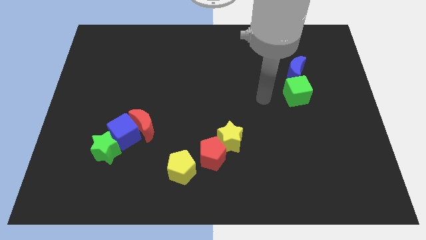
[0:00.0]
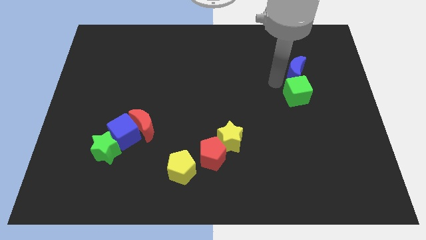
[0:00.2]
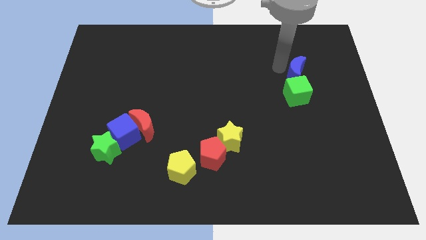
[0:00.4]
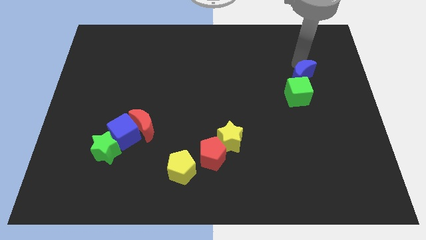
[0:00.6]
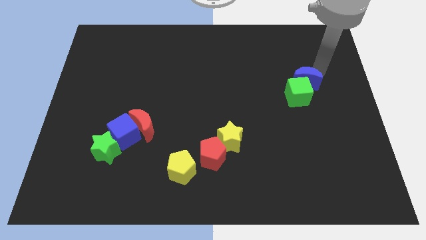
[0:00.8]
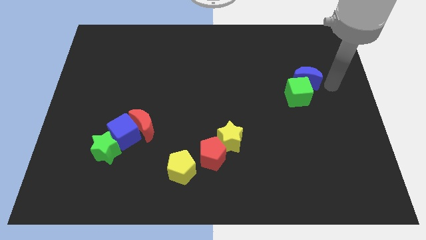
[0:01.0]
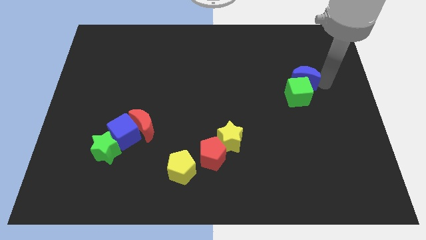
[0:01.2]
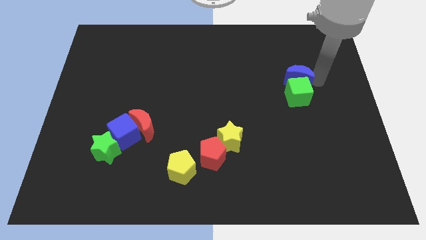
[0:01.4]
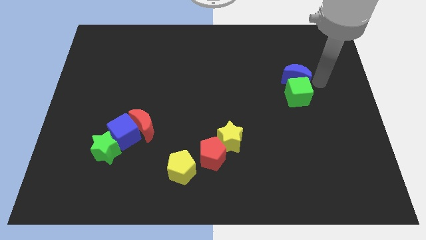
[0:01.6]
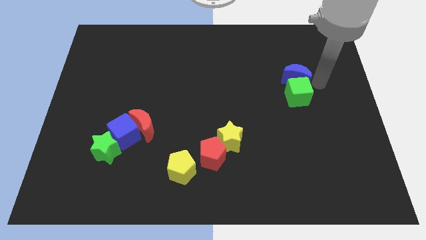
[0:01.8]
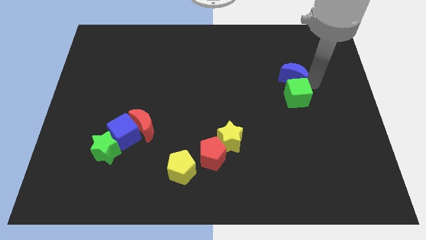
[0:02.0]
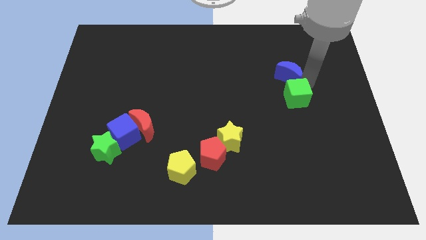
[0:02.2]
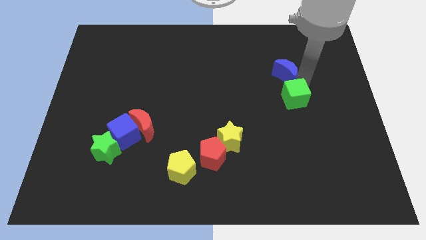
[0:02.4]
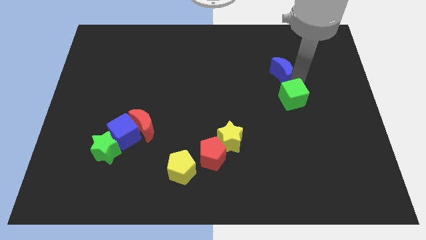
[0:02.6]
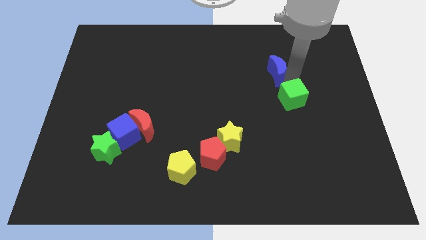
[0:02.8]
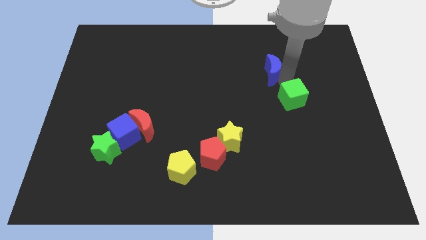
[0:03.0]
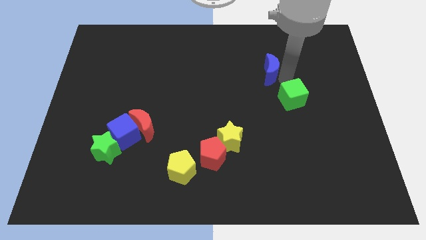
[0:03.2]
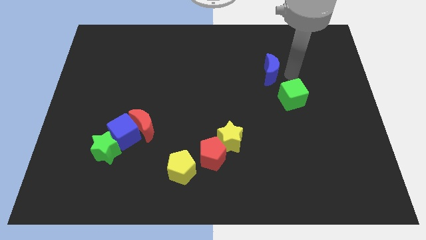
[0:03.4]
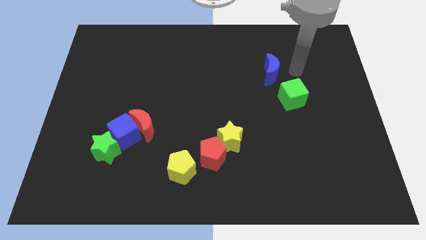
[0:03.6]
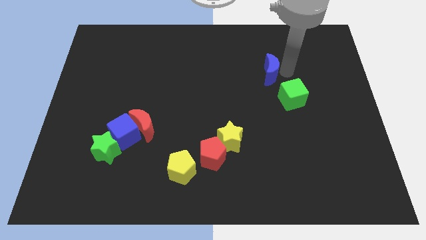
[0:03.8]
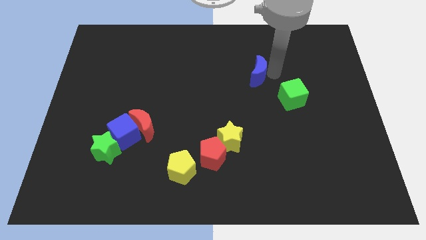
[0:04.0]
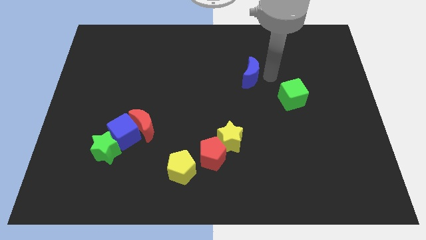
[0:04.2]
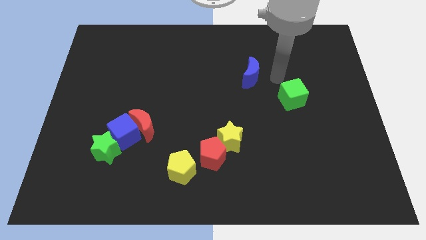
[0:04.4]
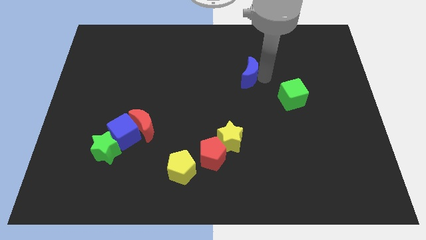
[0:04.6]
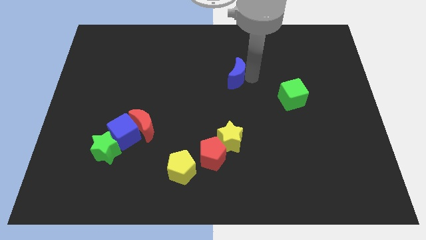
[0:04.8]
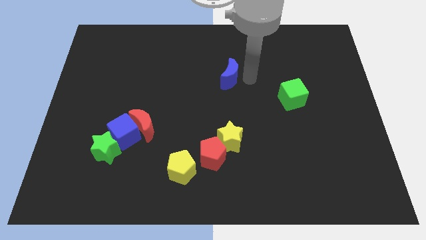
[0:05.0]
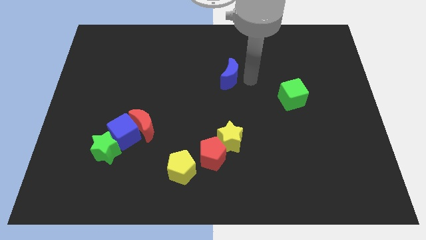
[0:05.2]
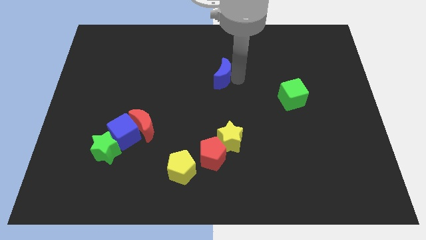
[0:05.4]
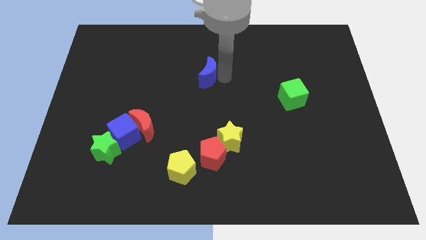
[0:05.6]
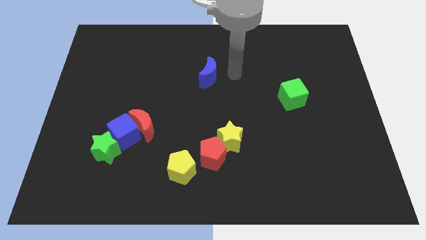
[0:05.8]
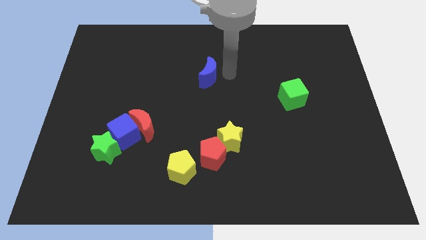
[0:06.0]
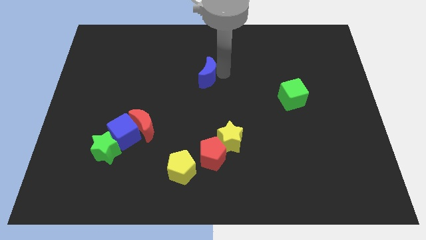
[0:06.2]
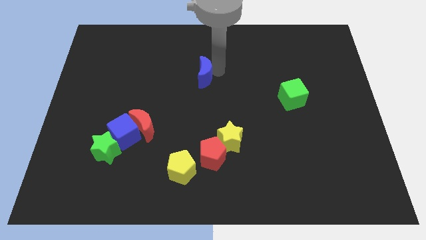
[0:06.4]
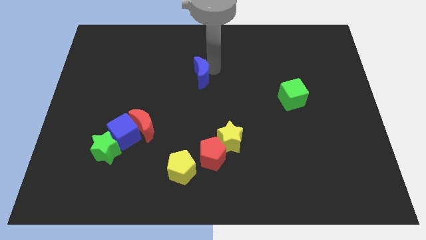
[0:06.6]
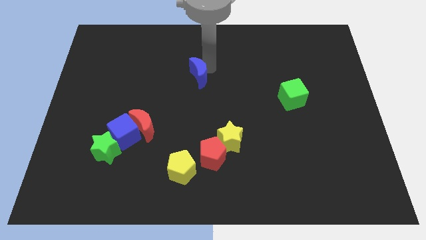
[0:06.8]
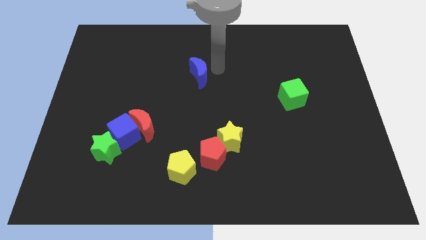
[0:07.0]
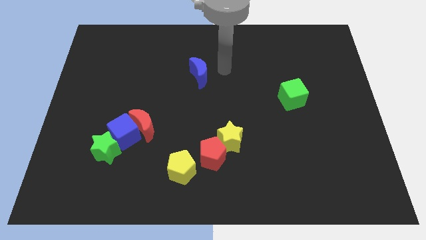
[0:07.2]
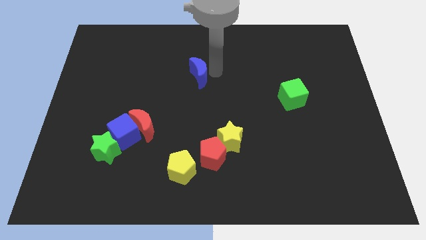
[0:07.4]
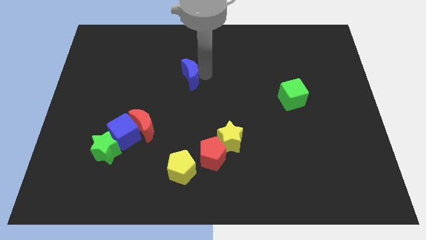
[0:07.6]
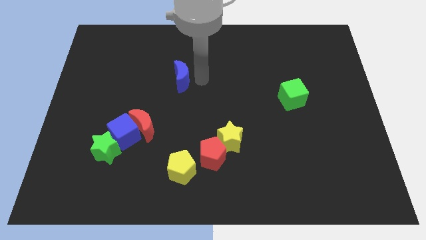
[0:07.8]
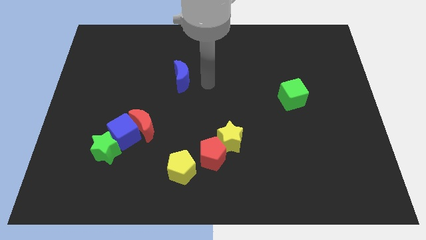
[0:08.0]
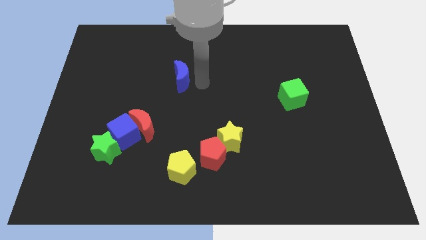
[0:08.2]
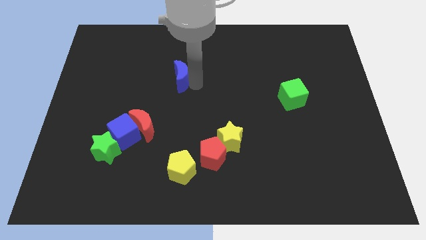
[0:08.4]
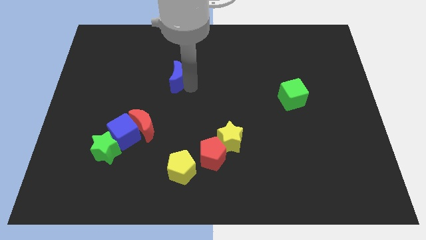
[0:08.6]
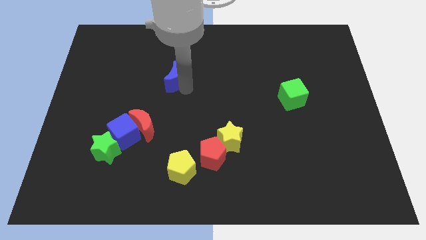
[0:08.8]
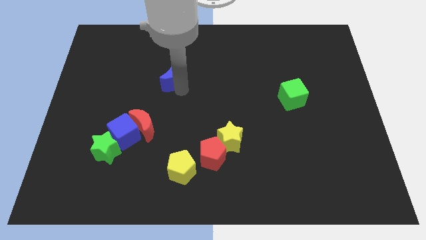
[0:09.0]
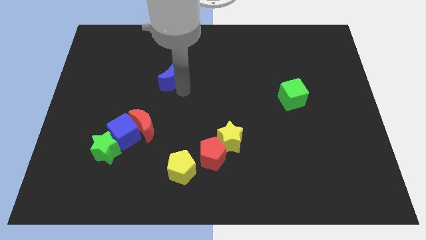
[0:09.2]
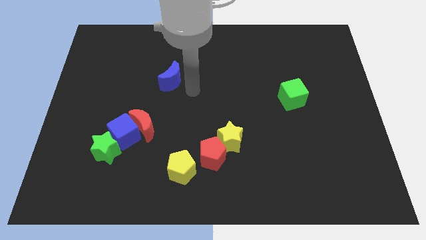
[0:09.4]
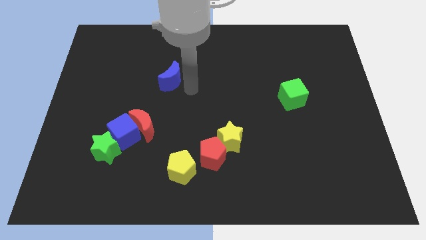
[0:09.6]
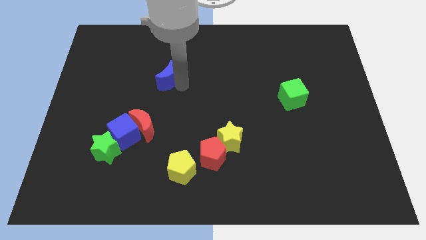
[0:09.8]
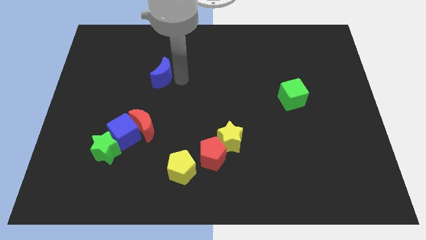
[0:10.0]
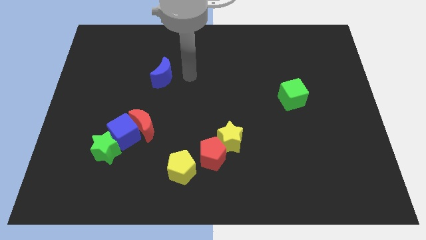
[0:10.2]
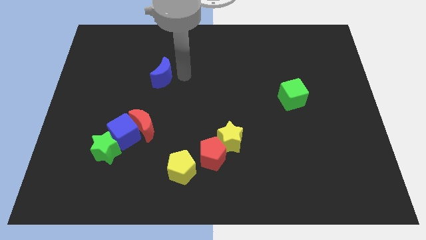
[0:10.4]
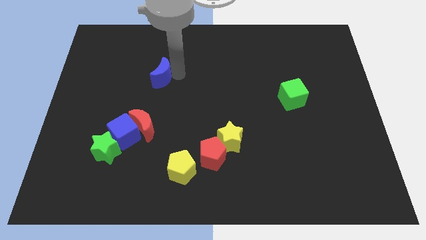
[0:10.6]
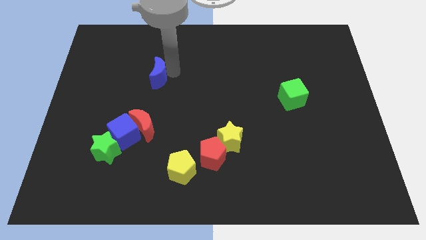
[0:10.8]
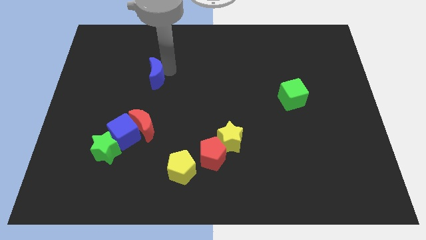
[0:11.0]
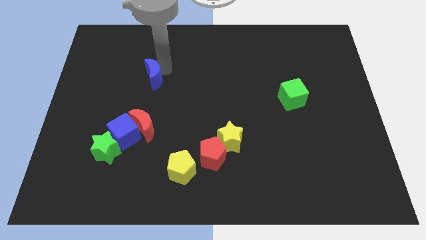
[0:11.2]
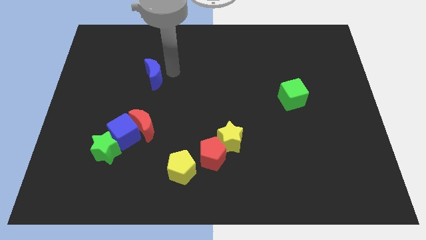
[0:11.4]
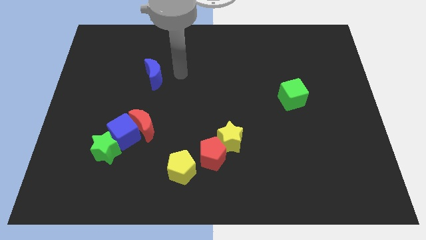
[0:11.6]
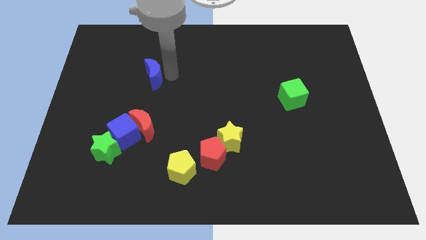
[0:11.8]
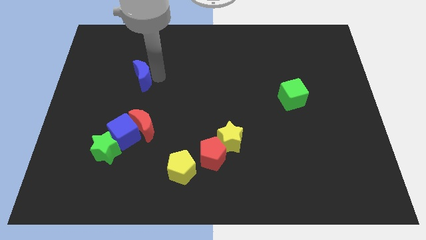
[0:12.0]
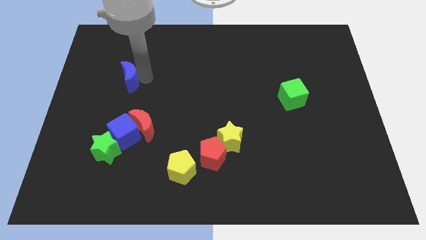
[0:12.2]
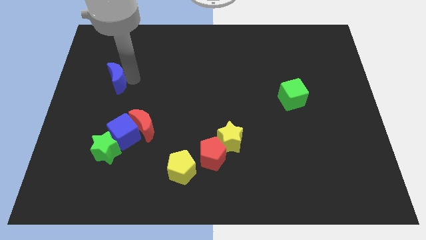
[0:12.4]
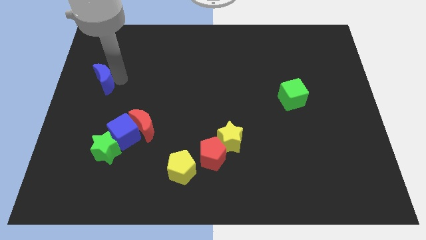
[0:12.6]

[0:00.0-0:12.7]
put the blue moon to the center left

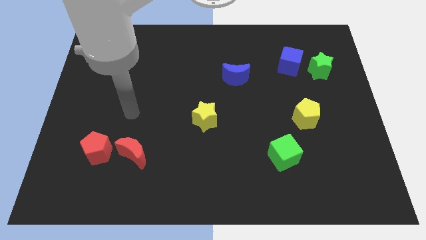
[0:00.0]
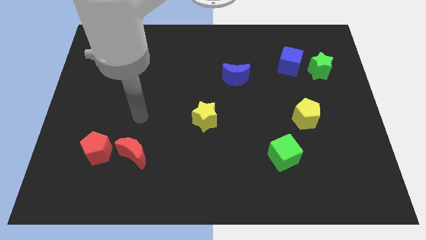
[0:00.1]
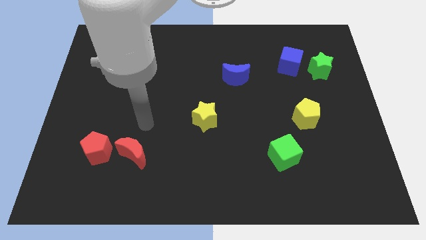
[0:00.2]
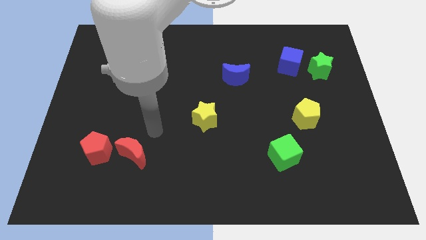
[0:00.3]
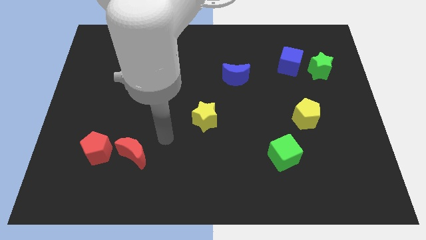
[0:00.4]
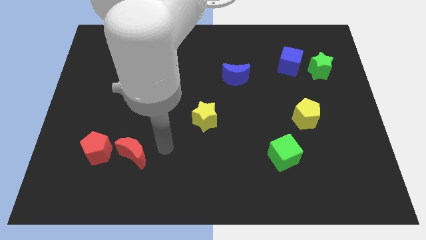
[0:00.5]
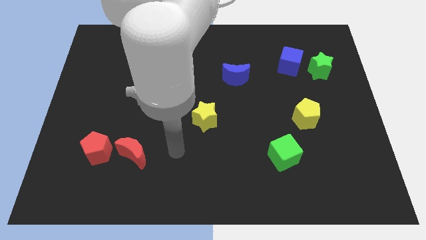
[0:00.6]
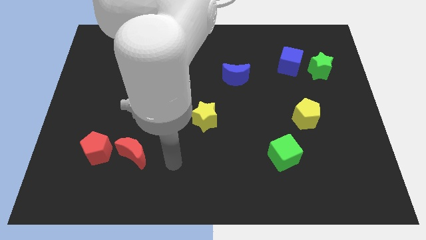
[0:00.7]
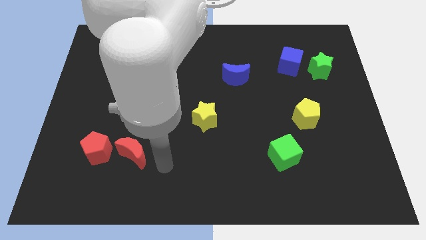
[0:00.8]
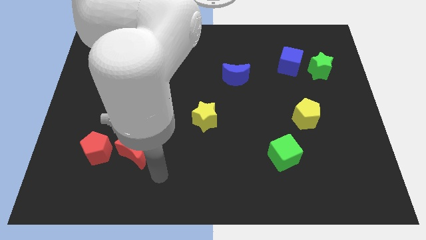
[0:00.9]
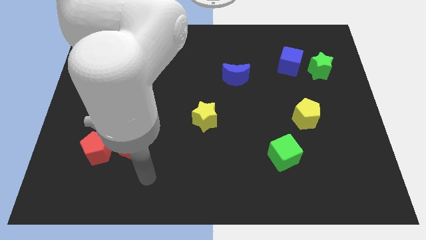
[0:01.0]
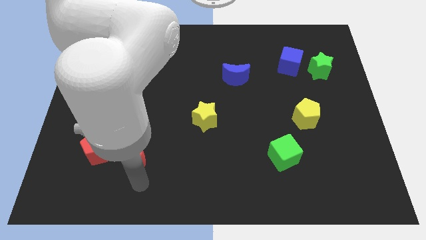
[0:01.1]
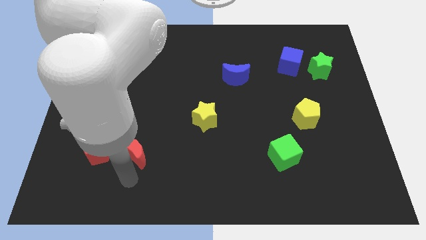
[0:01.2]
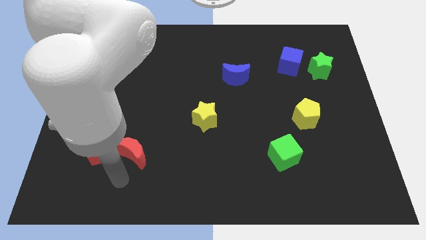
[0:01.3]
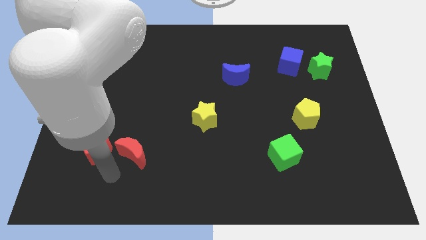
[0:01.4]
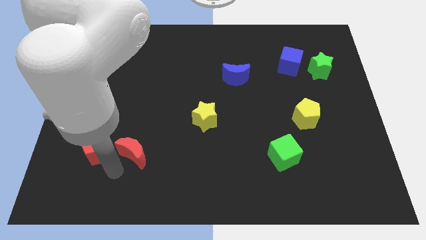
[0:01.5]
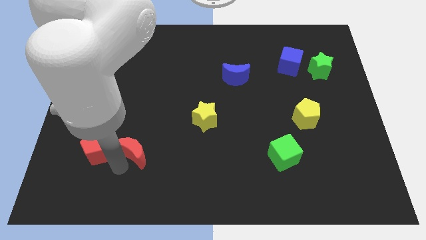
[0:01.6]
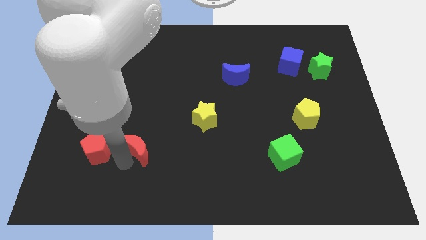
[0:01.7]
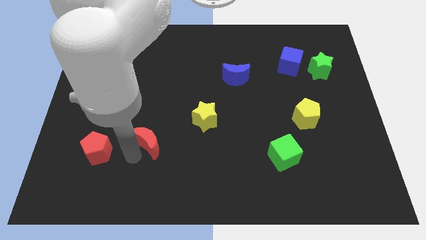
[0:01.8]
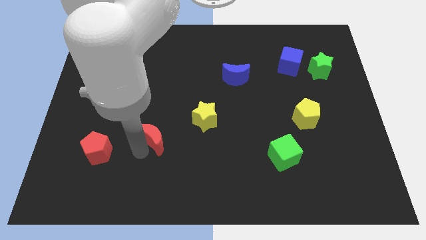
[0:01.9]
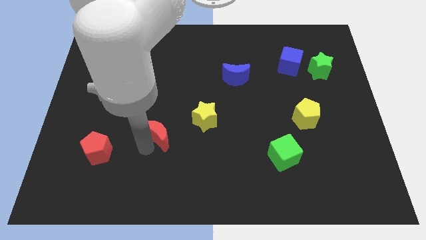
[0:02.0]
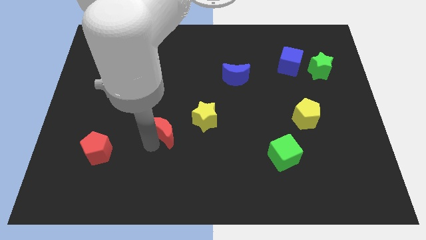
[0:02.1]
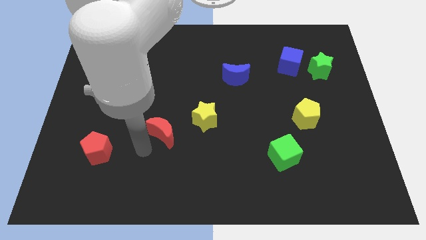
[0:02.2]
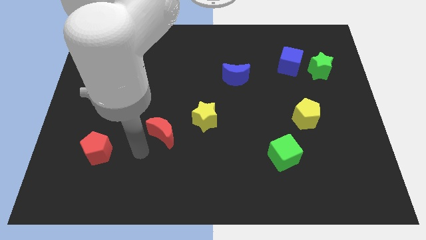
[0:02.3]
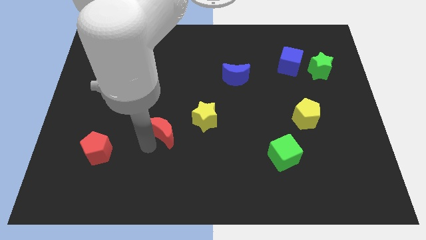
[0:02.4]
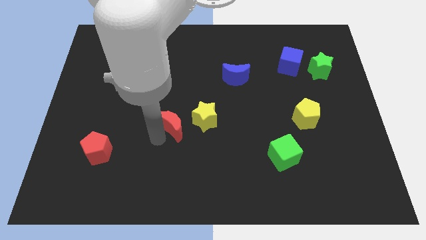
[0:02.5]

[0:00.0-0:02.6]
move the red moon to the middle of the board
